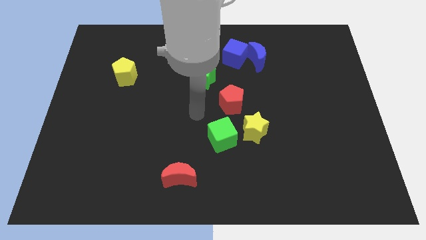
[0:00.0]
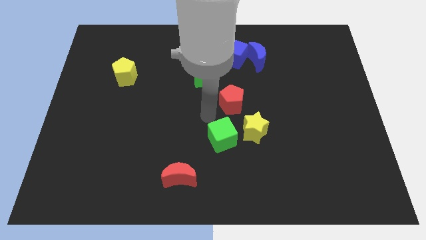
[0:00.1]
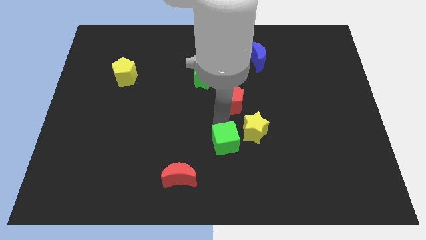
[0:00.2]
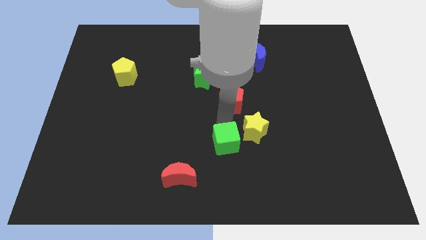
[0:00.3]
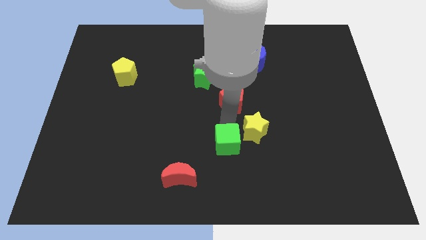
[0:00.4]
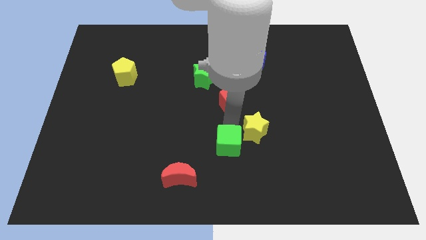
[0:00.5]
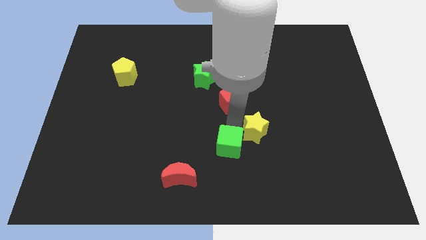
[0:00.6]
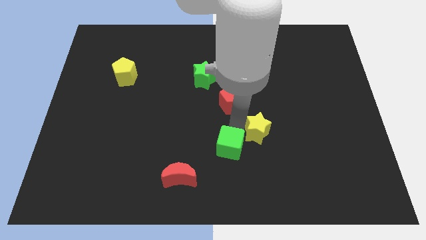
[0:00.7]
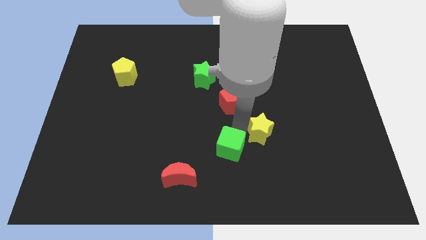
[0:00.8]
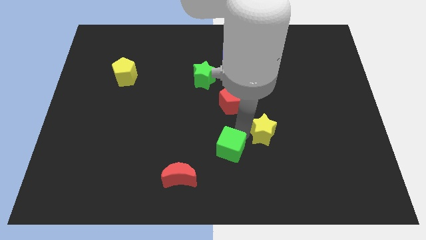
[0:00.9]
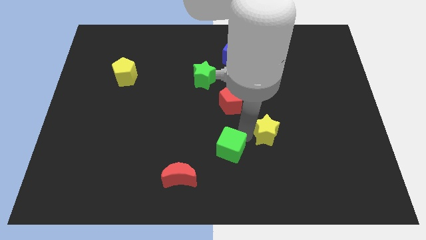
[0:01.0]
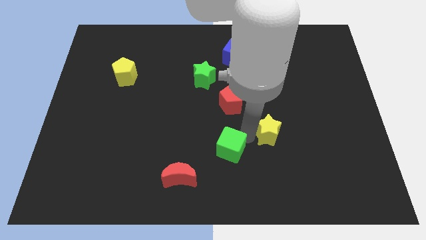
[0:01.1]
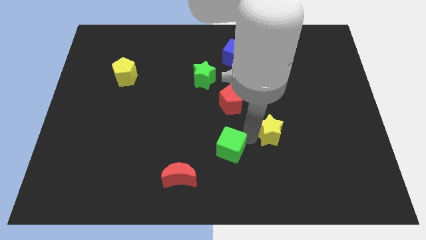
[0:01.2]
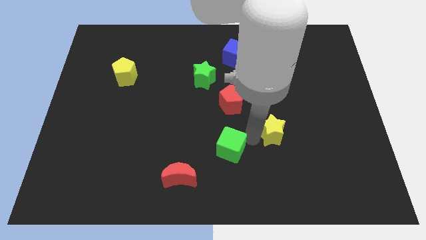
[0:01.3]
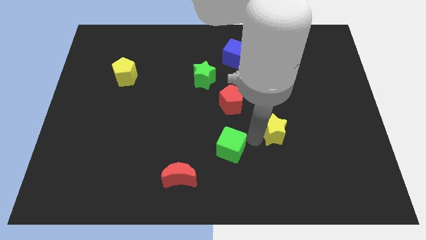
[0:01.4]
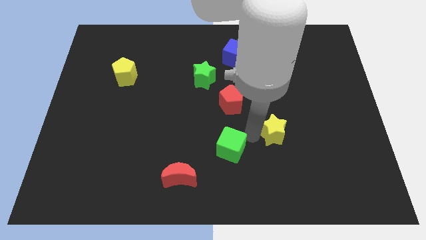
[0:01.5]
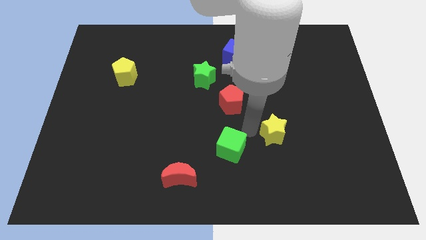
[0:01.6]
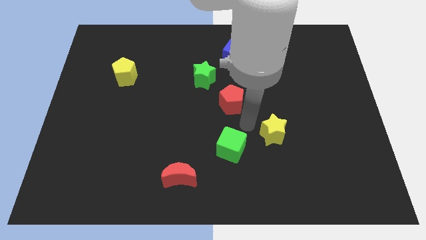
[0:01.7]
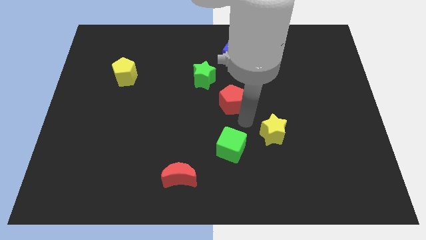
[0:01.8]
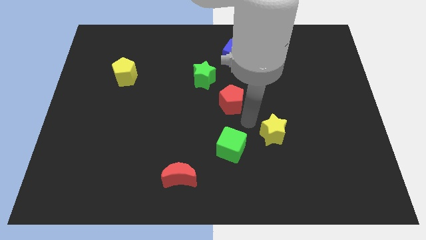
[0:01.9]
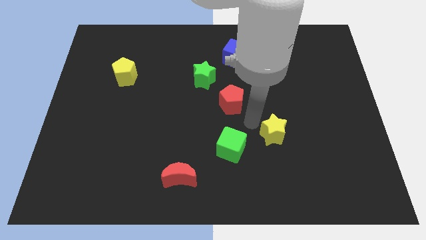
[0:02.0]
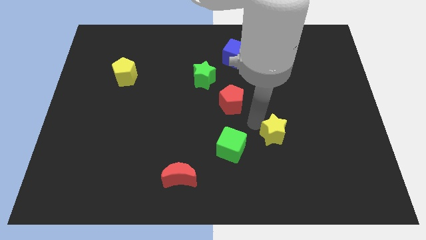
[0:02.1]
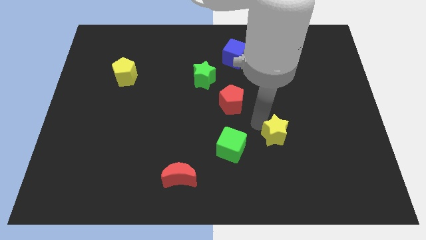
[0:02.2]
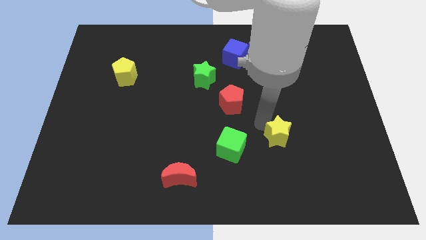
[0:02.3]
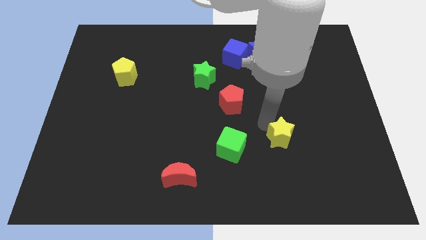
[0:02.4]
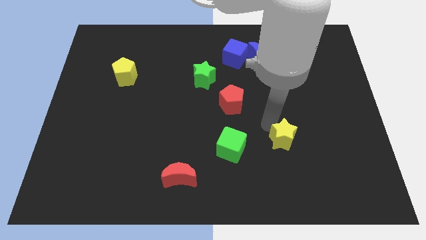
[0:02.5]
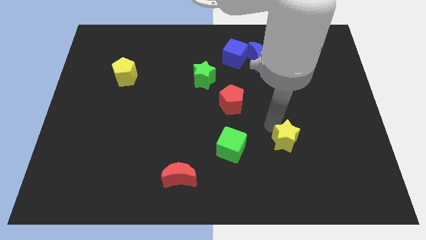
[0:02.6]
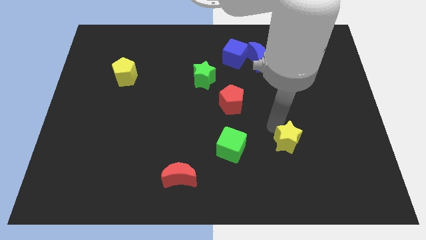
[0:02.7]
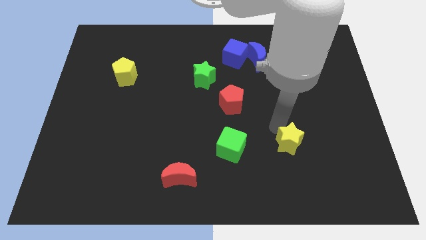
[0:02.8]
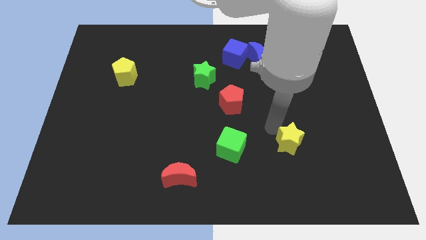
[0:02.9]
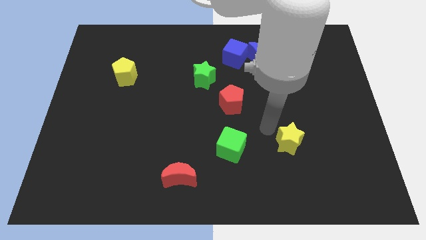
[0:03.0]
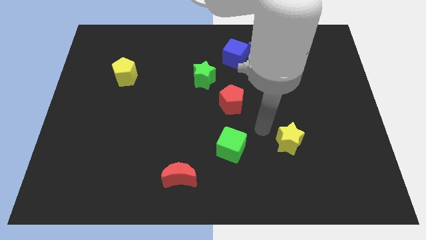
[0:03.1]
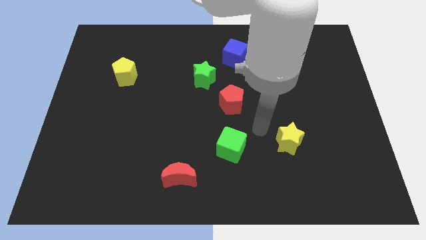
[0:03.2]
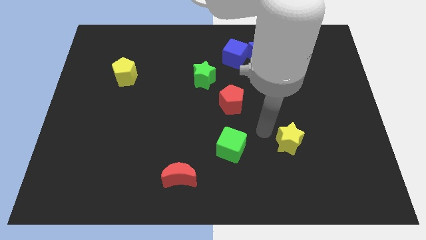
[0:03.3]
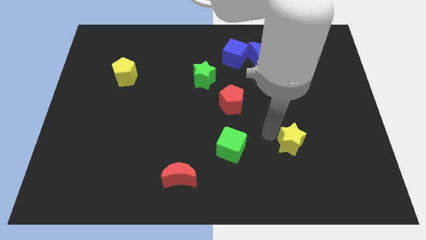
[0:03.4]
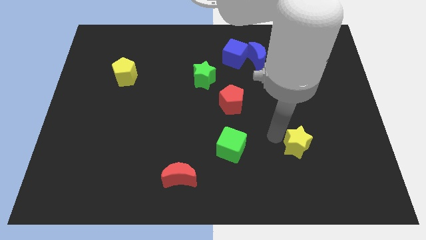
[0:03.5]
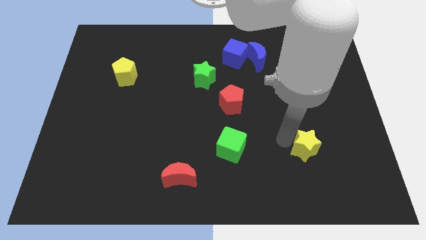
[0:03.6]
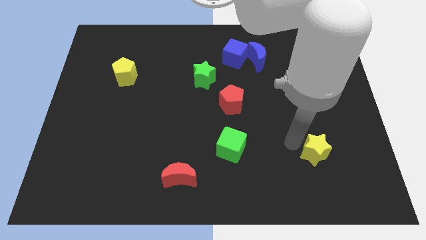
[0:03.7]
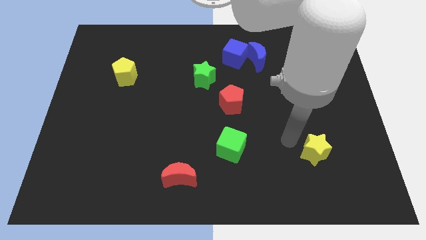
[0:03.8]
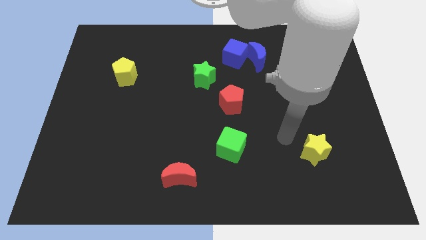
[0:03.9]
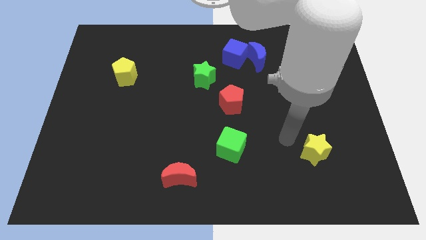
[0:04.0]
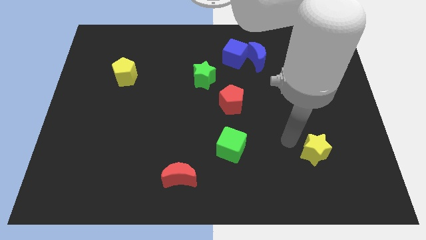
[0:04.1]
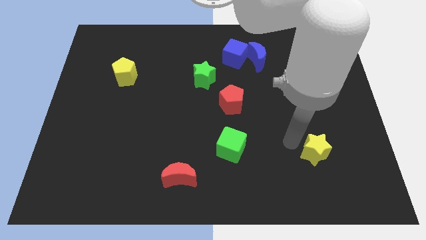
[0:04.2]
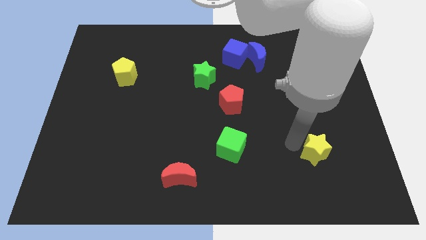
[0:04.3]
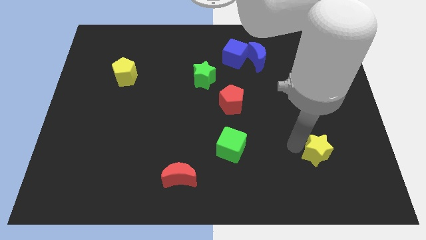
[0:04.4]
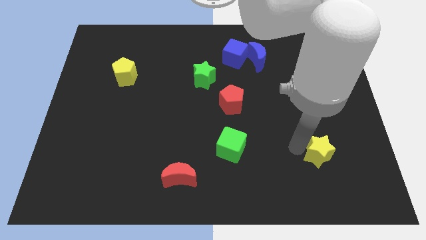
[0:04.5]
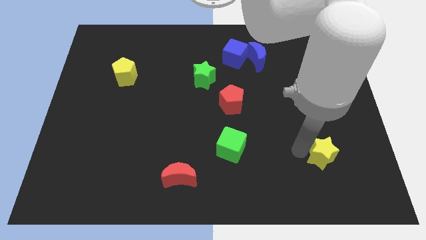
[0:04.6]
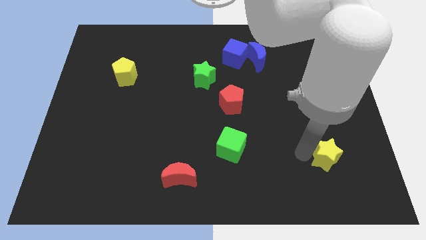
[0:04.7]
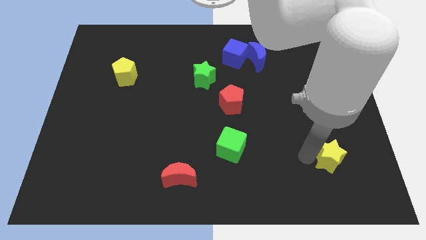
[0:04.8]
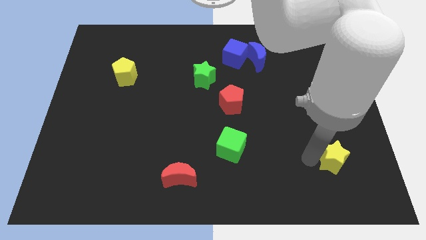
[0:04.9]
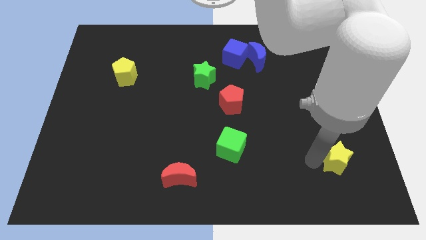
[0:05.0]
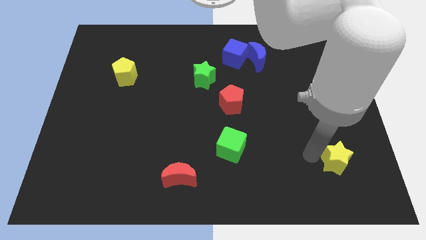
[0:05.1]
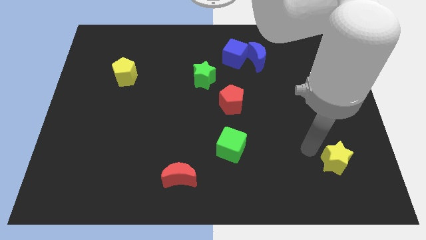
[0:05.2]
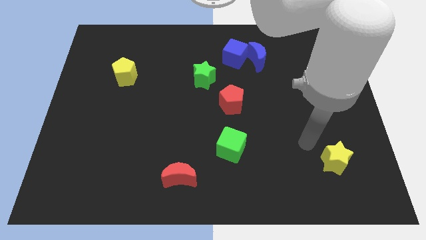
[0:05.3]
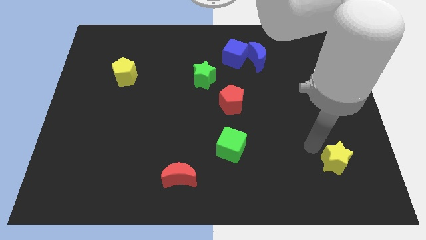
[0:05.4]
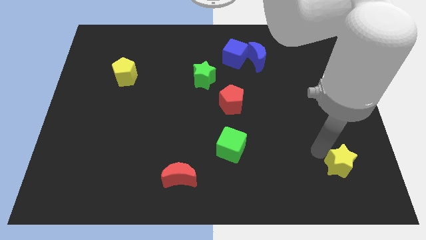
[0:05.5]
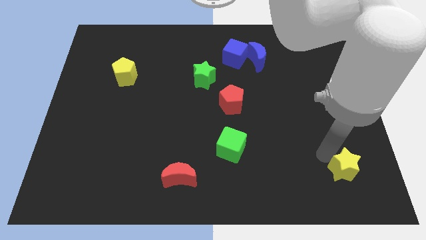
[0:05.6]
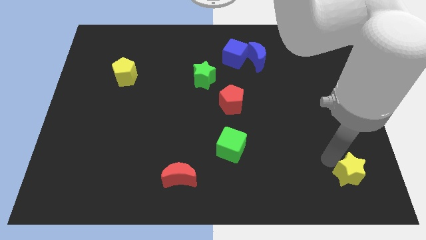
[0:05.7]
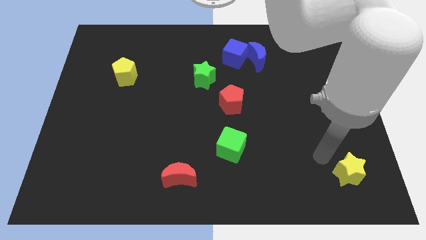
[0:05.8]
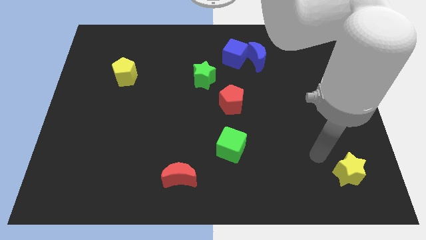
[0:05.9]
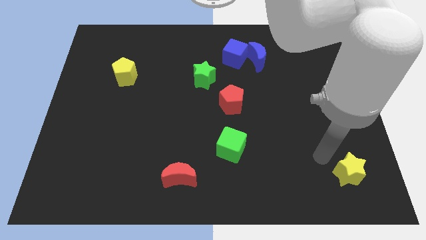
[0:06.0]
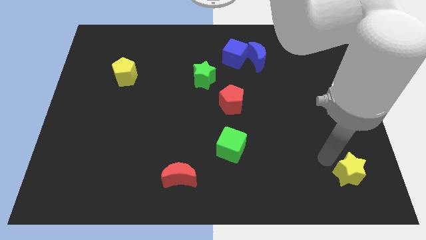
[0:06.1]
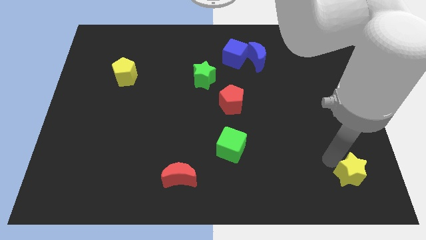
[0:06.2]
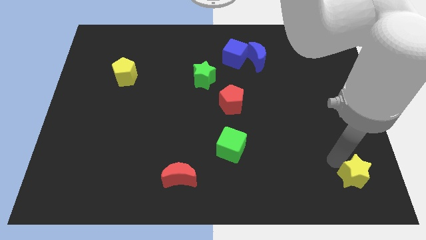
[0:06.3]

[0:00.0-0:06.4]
push the yellow star to the bottom right of the board
